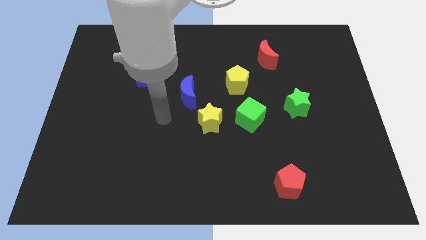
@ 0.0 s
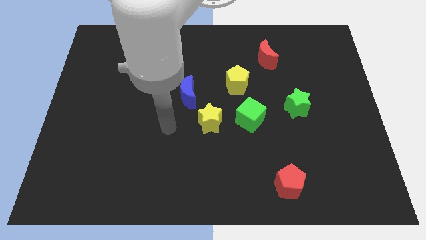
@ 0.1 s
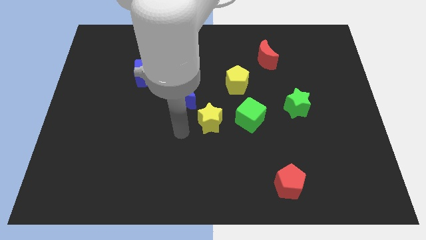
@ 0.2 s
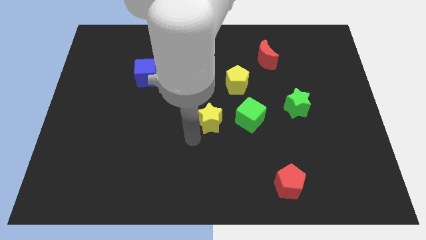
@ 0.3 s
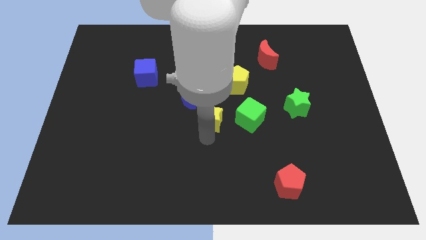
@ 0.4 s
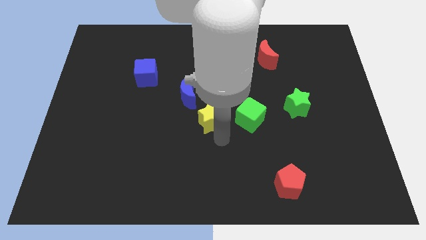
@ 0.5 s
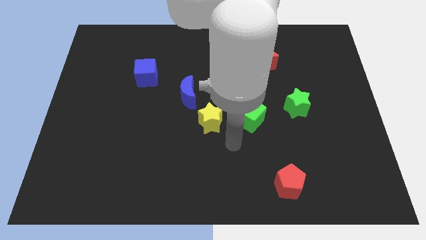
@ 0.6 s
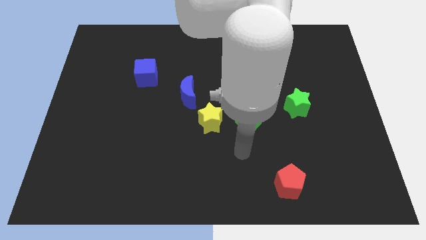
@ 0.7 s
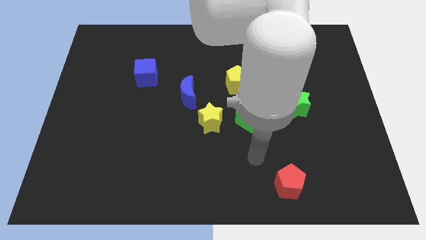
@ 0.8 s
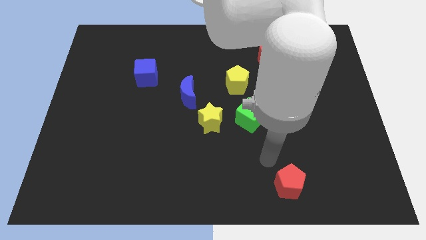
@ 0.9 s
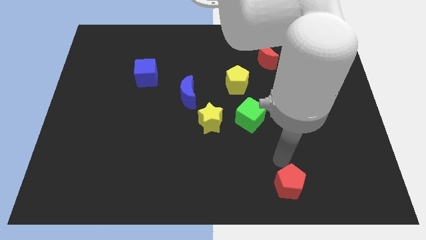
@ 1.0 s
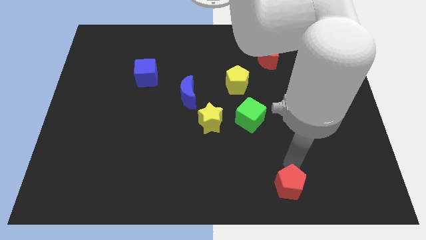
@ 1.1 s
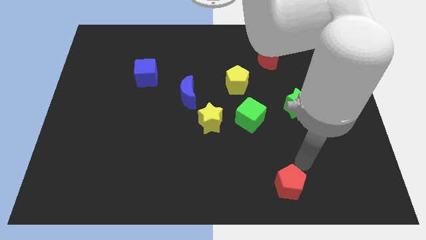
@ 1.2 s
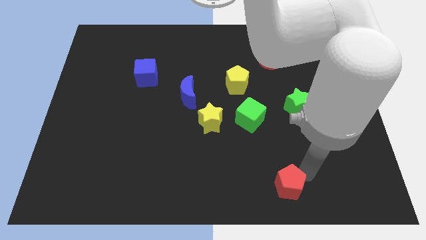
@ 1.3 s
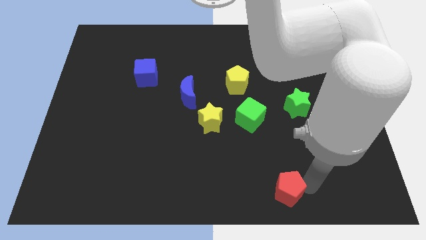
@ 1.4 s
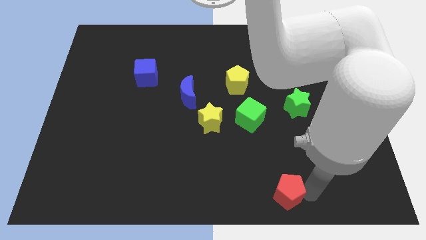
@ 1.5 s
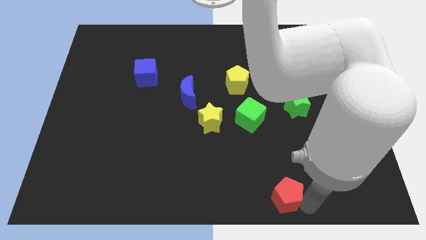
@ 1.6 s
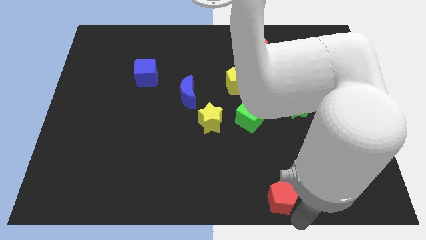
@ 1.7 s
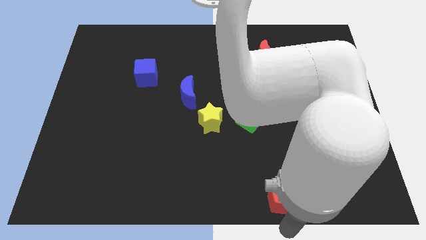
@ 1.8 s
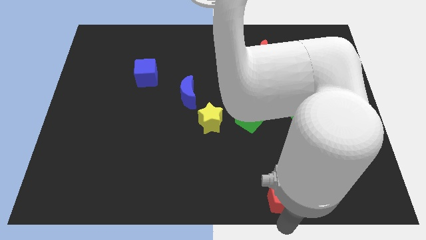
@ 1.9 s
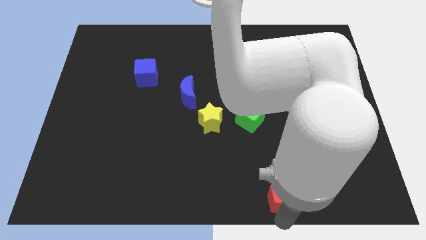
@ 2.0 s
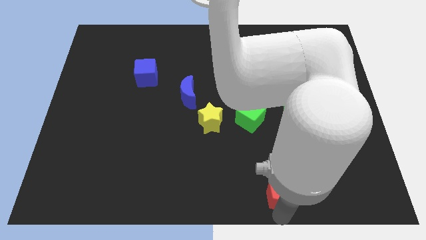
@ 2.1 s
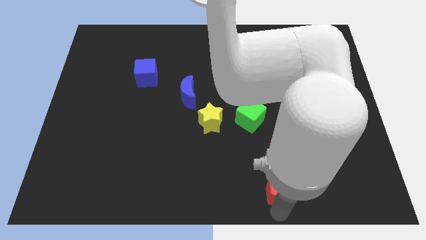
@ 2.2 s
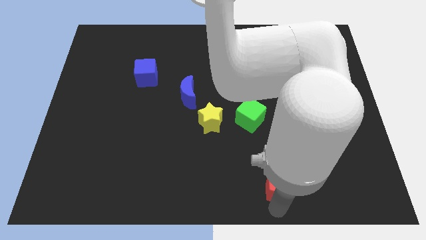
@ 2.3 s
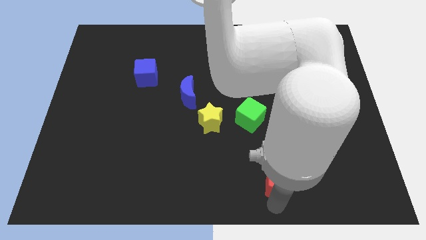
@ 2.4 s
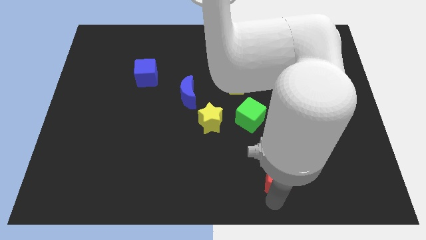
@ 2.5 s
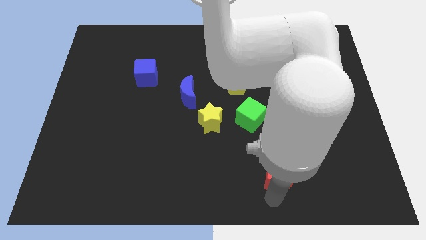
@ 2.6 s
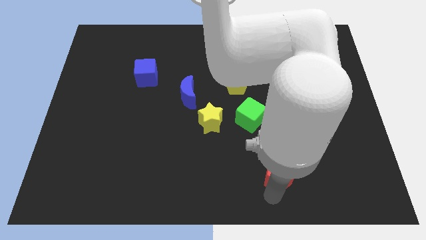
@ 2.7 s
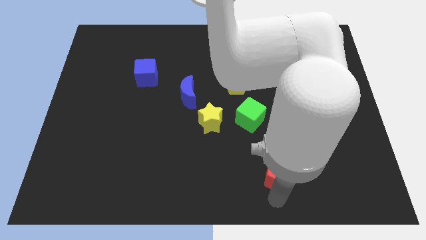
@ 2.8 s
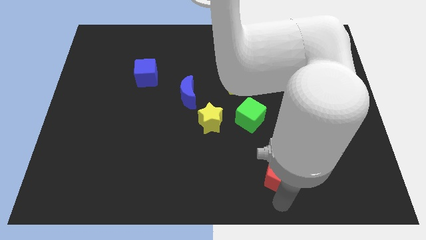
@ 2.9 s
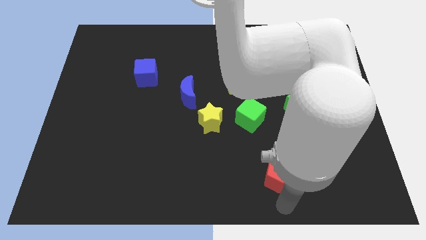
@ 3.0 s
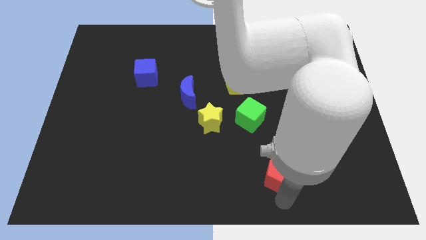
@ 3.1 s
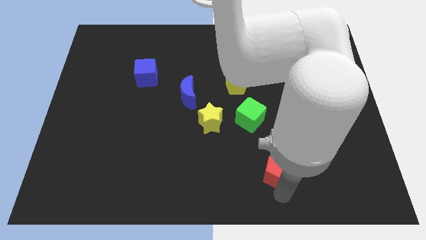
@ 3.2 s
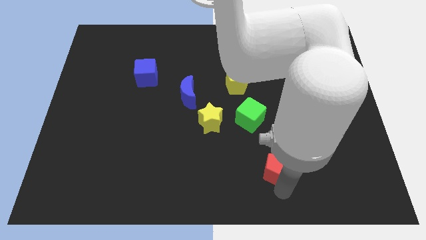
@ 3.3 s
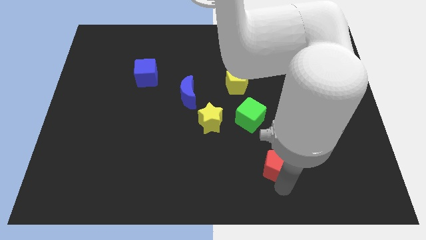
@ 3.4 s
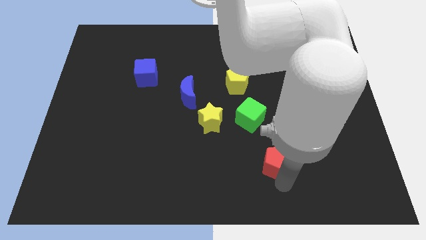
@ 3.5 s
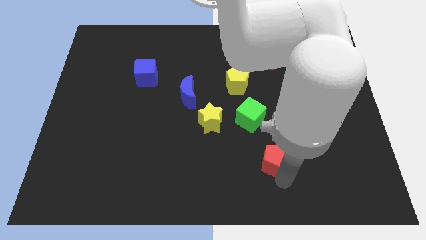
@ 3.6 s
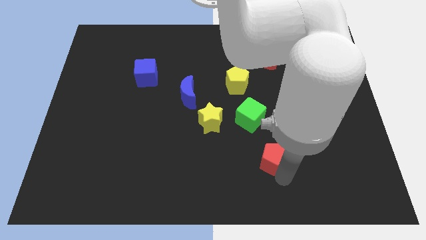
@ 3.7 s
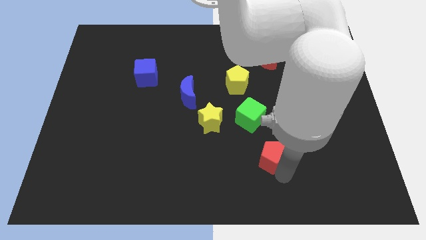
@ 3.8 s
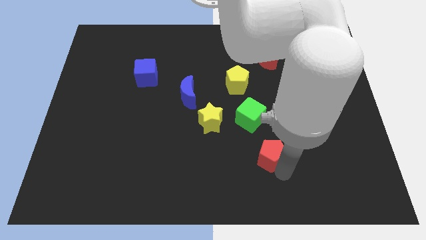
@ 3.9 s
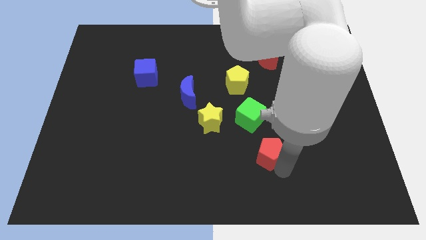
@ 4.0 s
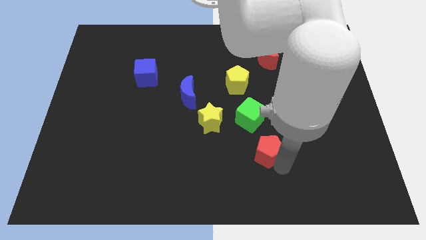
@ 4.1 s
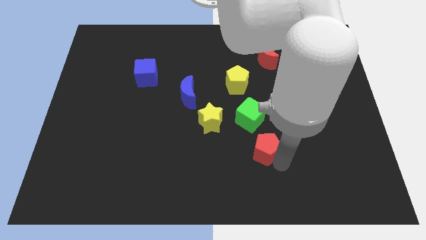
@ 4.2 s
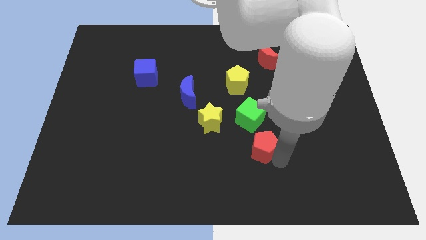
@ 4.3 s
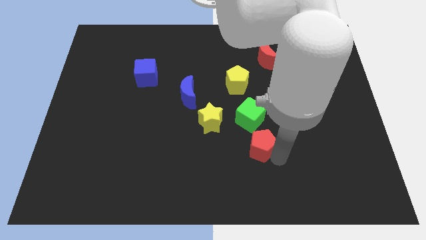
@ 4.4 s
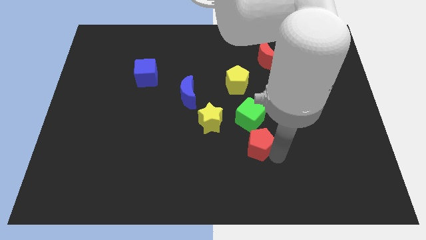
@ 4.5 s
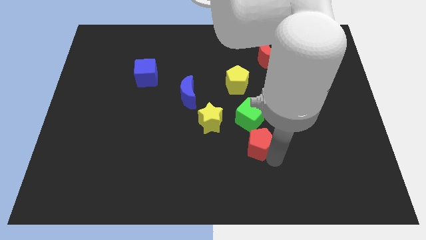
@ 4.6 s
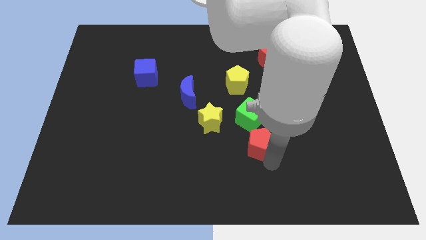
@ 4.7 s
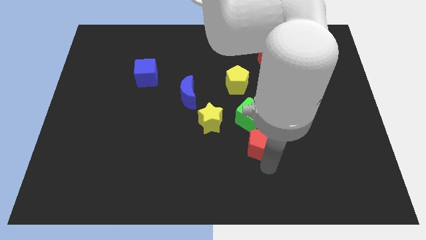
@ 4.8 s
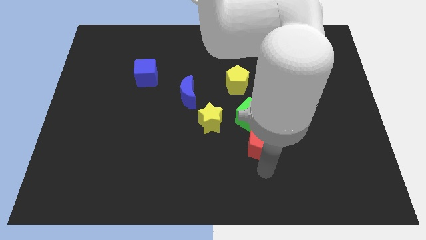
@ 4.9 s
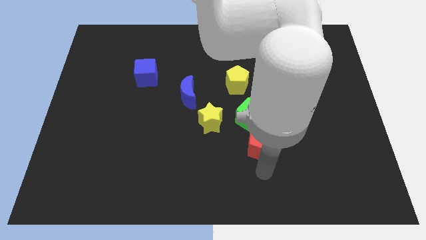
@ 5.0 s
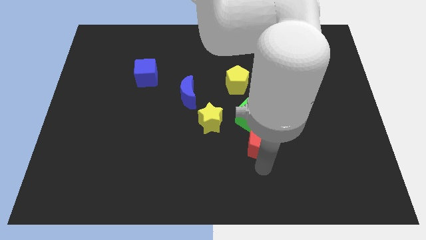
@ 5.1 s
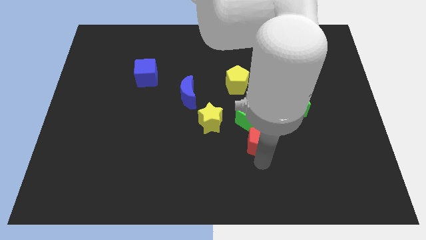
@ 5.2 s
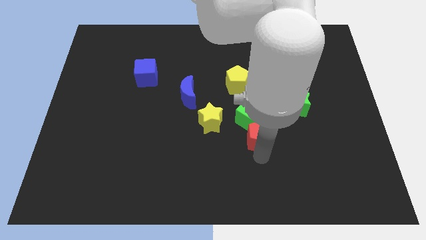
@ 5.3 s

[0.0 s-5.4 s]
push the red pentagon to the green cube

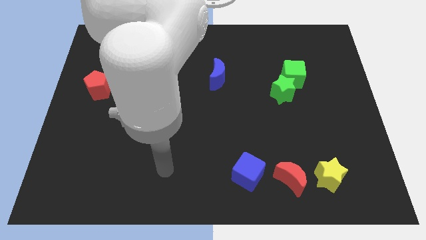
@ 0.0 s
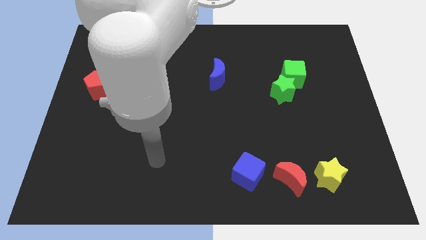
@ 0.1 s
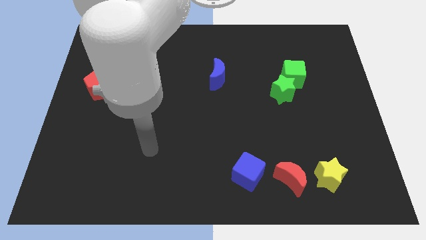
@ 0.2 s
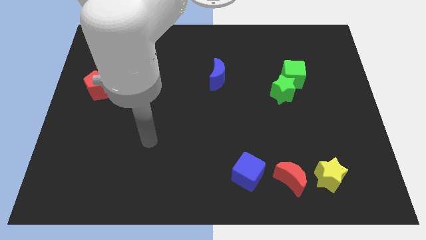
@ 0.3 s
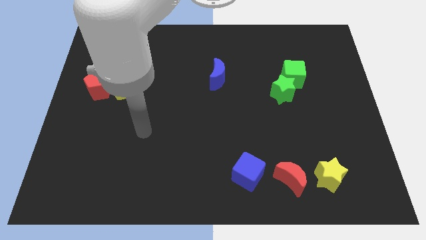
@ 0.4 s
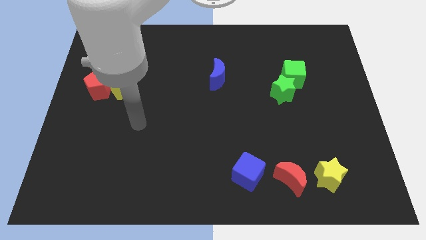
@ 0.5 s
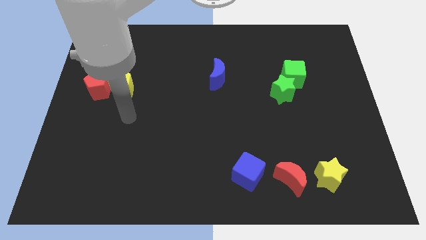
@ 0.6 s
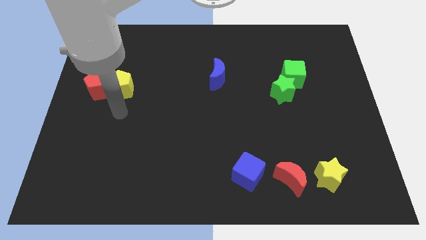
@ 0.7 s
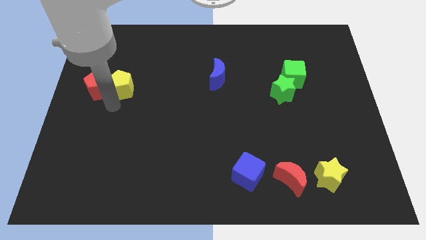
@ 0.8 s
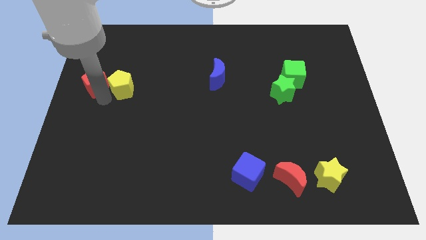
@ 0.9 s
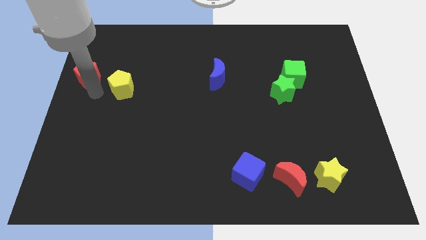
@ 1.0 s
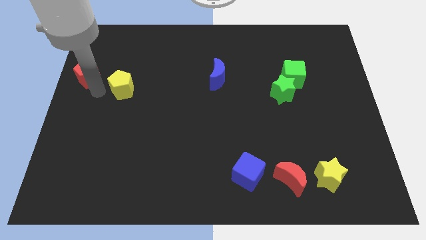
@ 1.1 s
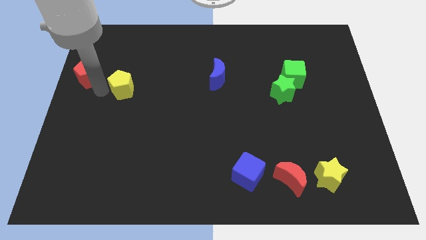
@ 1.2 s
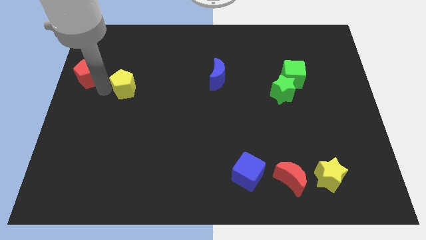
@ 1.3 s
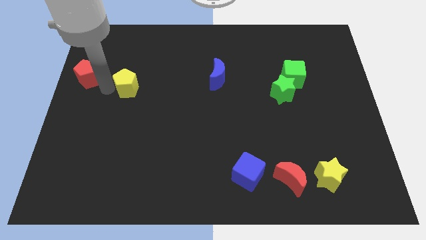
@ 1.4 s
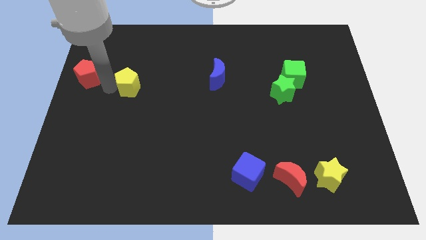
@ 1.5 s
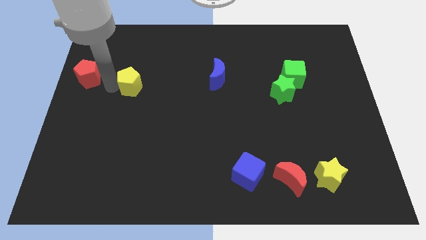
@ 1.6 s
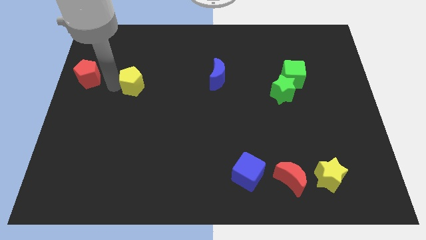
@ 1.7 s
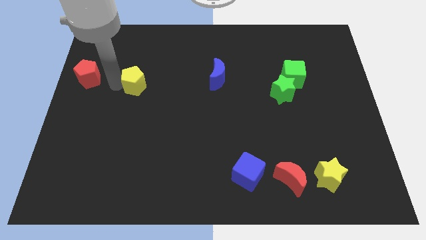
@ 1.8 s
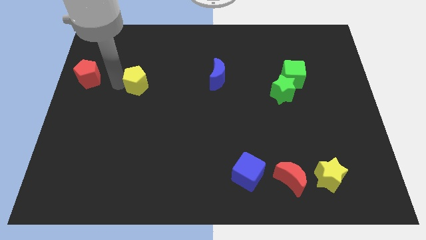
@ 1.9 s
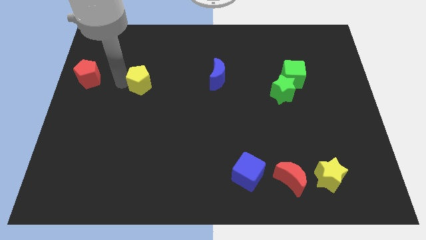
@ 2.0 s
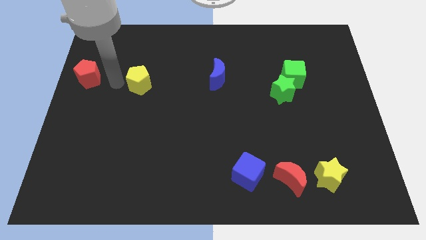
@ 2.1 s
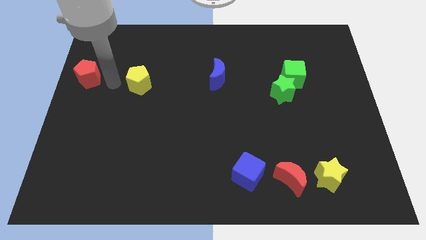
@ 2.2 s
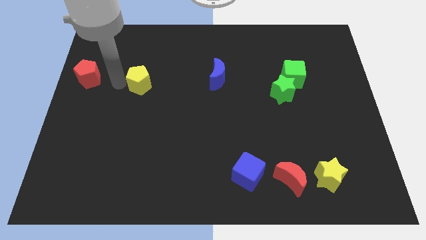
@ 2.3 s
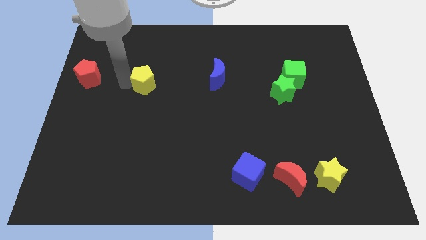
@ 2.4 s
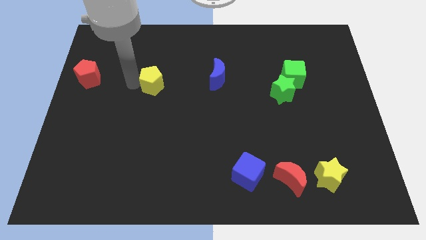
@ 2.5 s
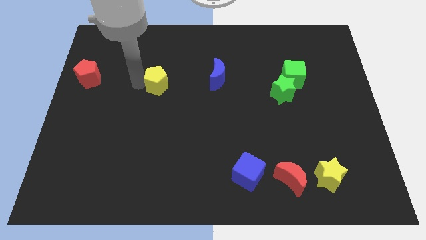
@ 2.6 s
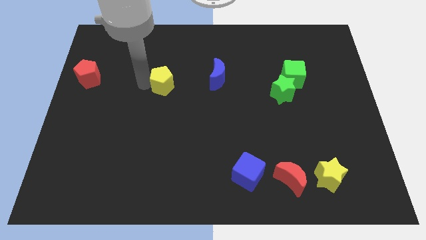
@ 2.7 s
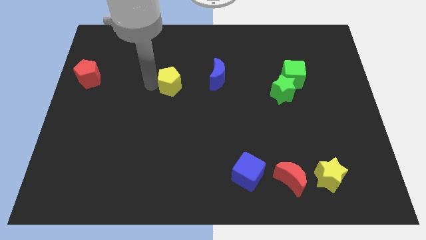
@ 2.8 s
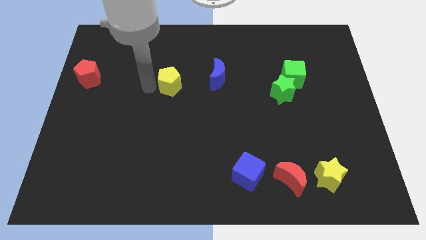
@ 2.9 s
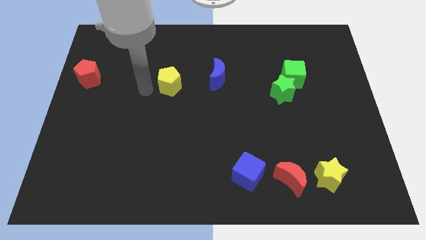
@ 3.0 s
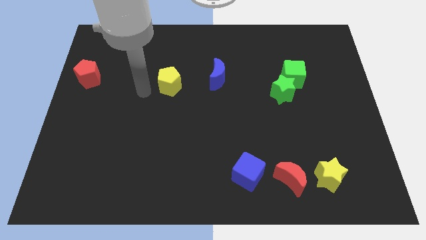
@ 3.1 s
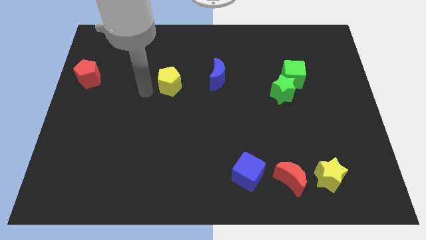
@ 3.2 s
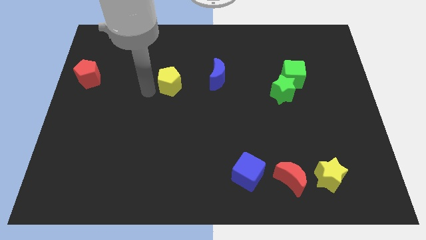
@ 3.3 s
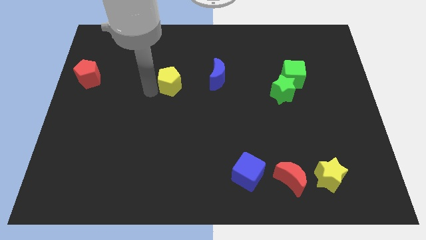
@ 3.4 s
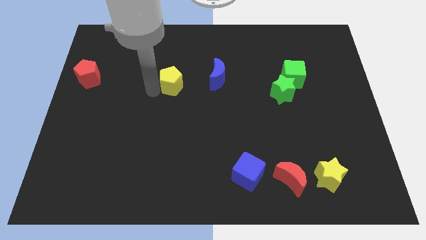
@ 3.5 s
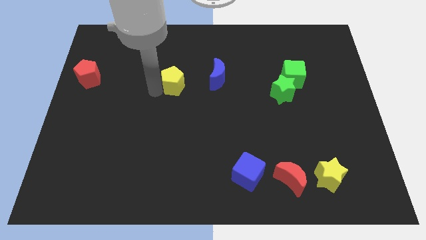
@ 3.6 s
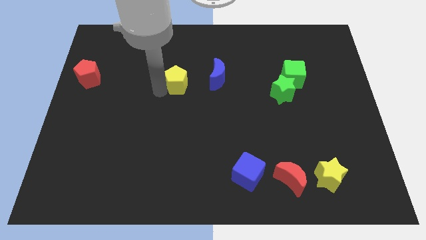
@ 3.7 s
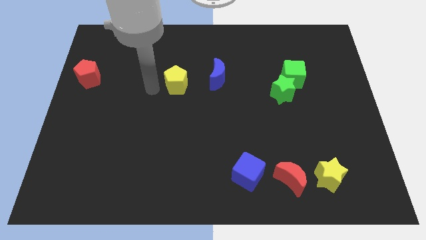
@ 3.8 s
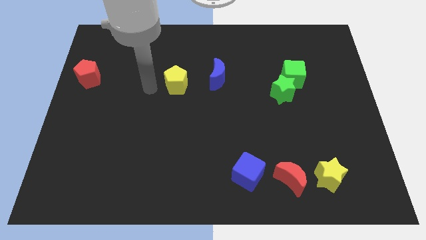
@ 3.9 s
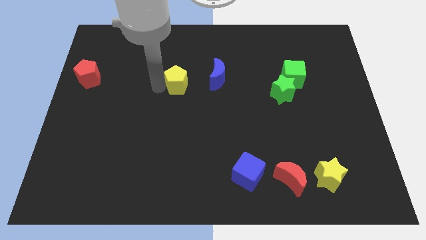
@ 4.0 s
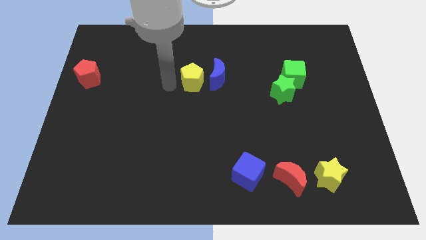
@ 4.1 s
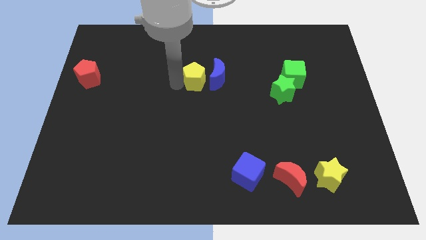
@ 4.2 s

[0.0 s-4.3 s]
put the yellow pentagon towards the blue moon
